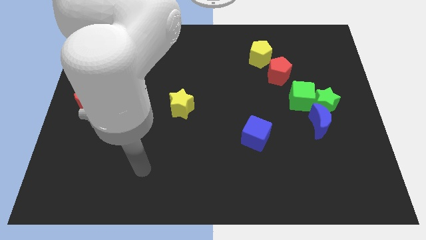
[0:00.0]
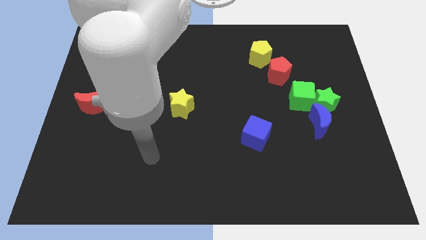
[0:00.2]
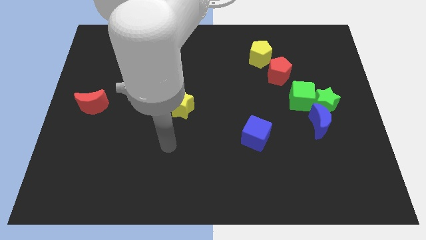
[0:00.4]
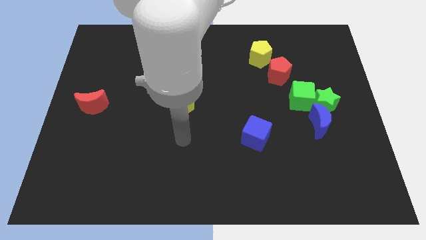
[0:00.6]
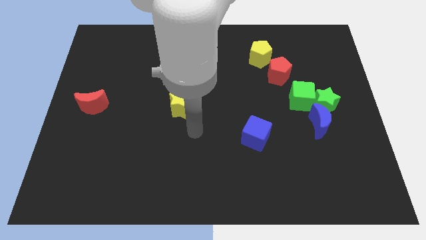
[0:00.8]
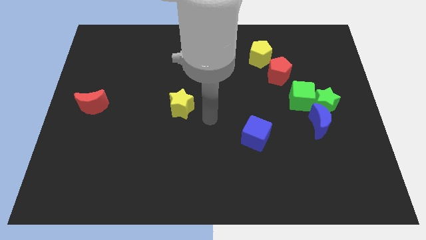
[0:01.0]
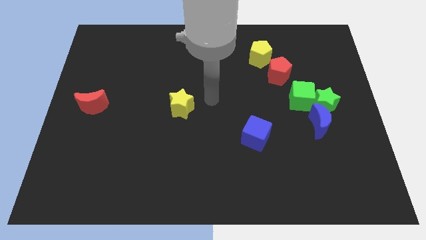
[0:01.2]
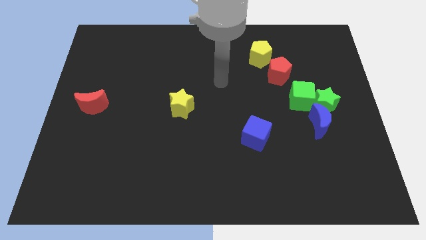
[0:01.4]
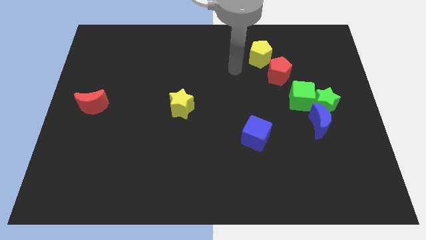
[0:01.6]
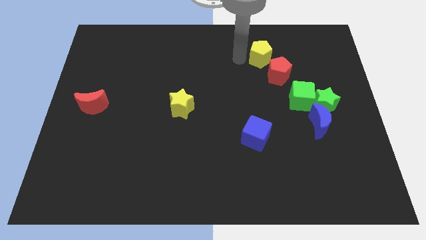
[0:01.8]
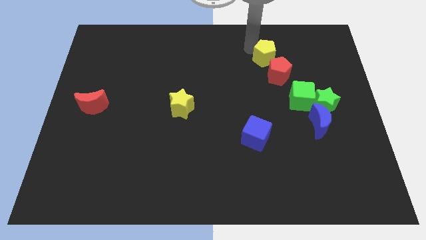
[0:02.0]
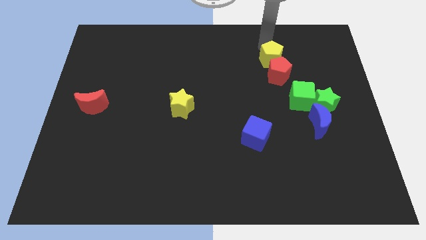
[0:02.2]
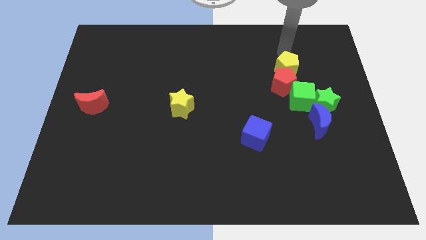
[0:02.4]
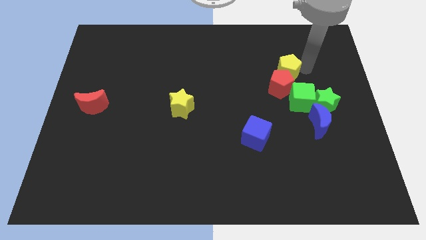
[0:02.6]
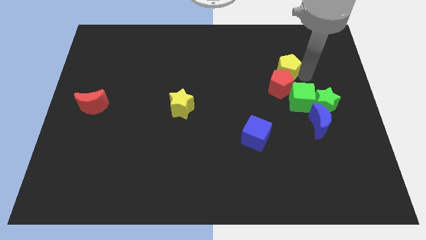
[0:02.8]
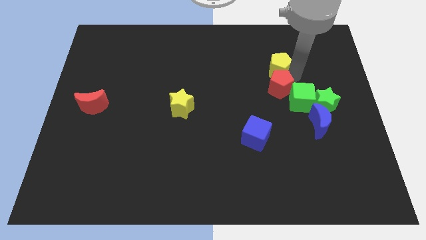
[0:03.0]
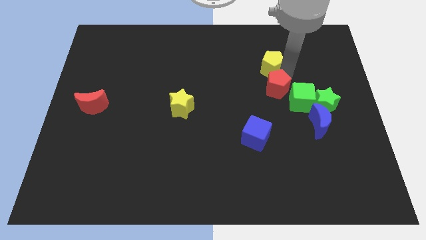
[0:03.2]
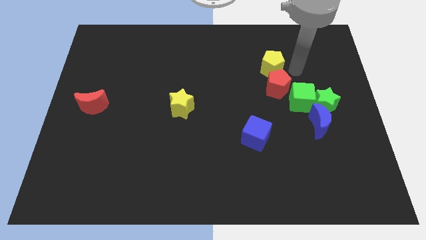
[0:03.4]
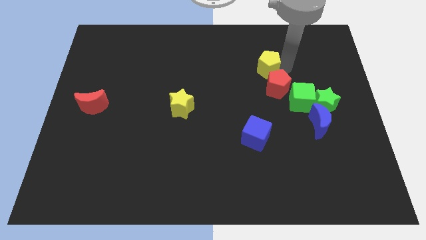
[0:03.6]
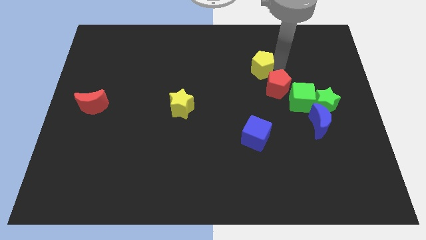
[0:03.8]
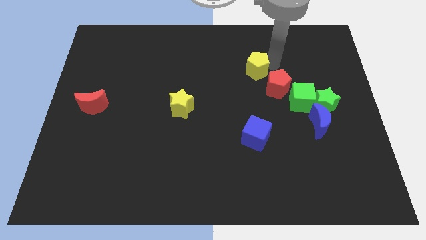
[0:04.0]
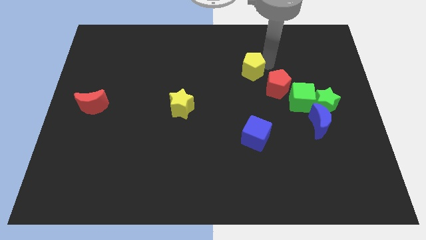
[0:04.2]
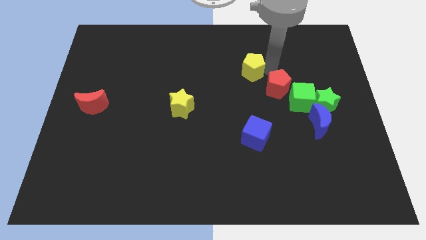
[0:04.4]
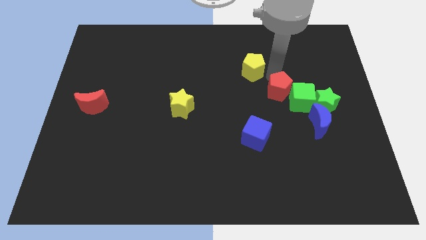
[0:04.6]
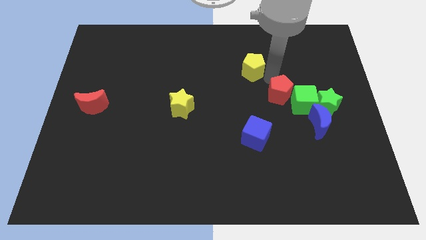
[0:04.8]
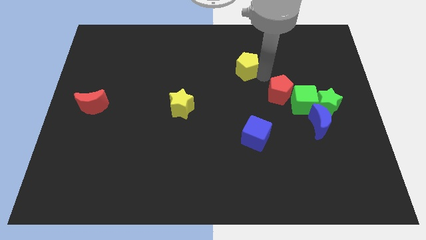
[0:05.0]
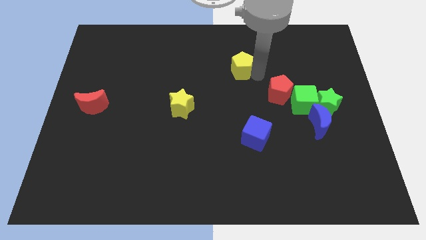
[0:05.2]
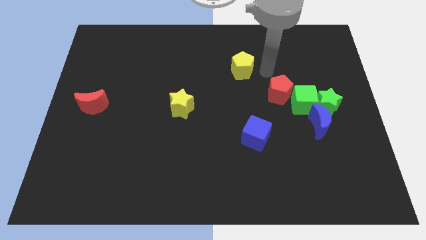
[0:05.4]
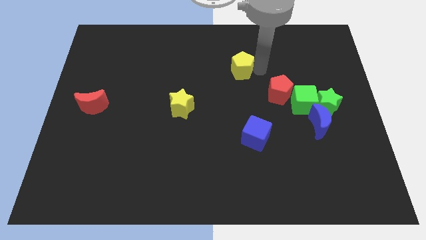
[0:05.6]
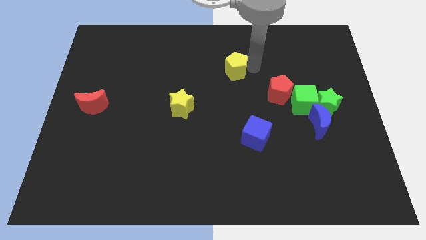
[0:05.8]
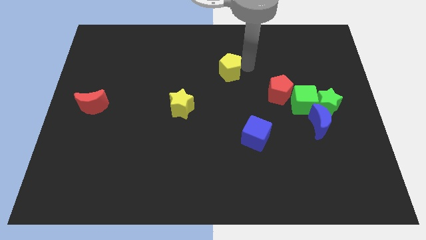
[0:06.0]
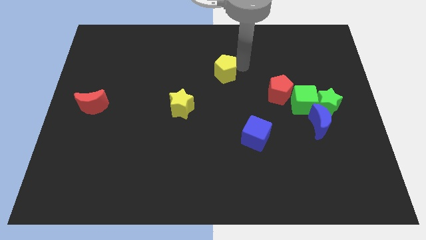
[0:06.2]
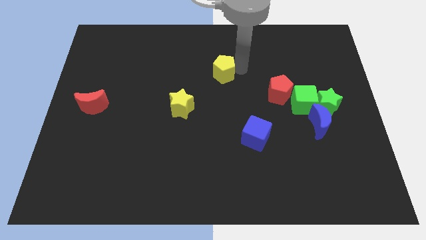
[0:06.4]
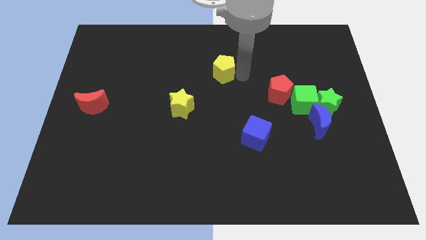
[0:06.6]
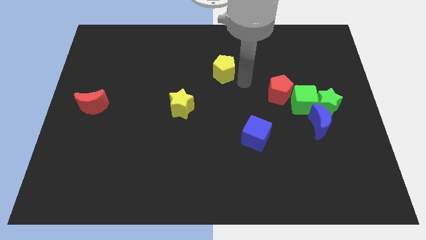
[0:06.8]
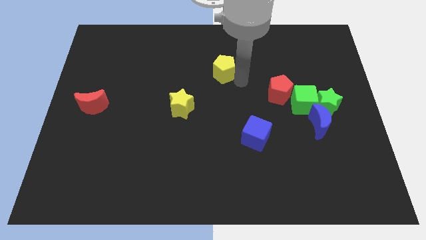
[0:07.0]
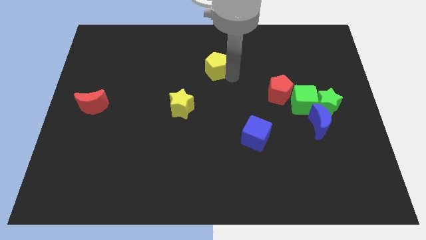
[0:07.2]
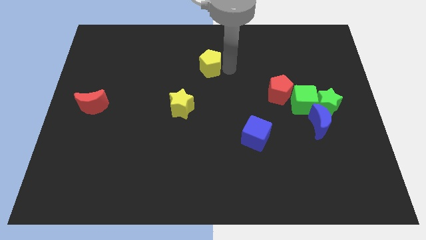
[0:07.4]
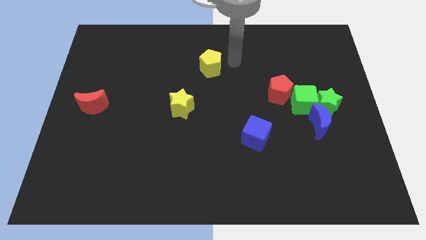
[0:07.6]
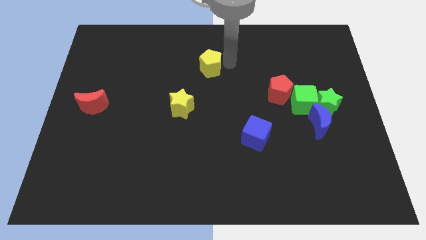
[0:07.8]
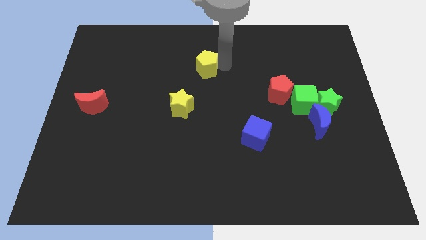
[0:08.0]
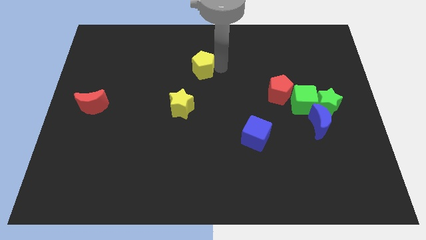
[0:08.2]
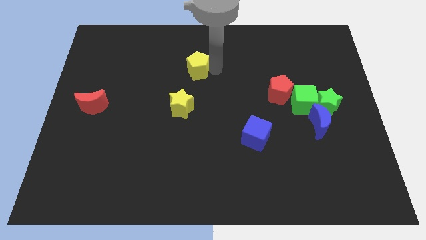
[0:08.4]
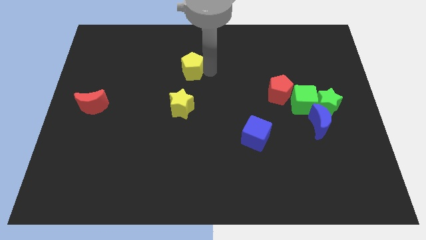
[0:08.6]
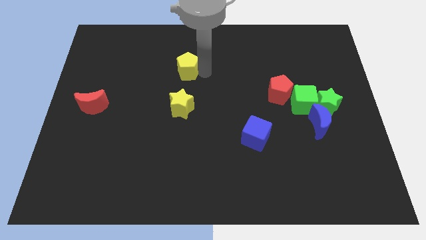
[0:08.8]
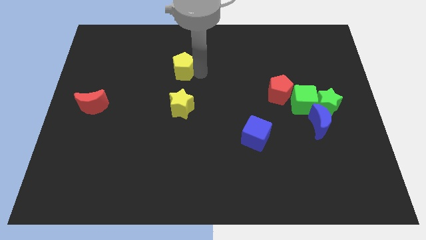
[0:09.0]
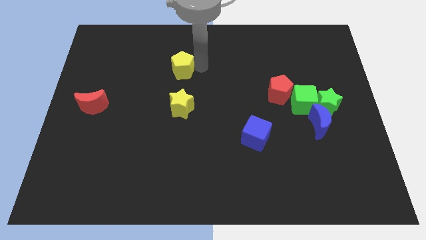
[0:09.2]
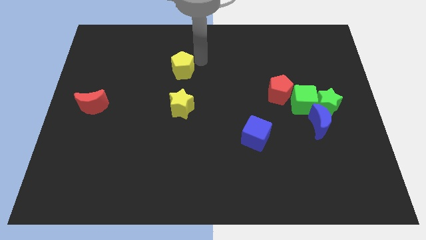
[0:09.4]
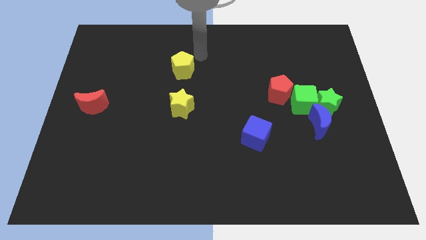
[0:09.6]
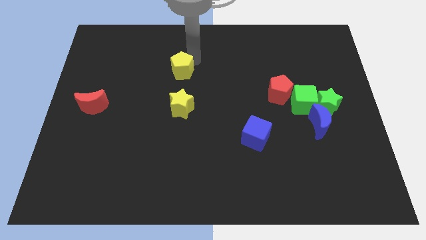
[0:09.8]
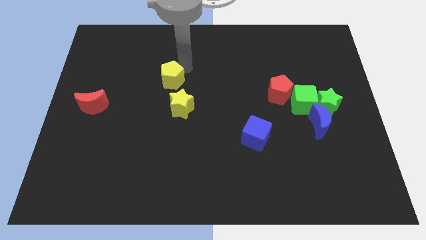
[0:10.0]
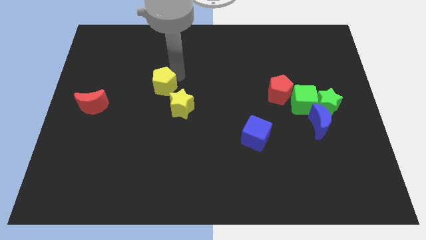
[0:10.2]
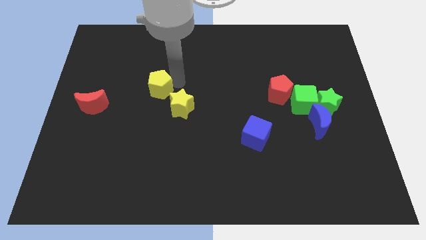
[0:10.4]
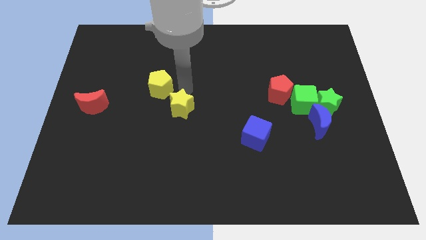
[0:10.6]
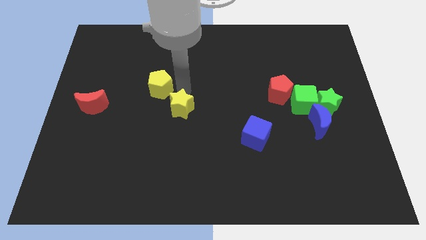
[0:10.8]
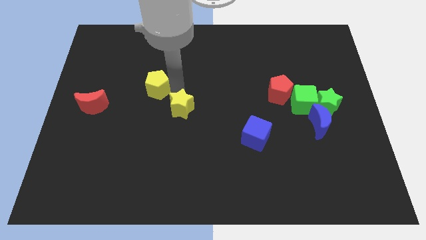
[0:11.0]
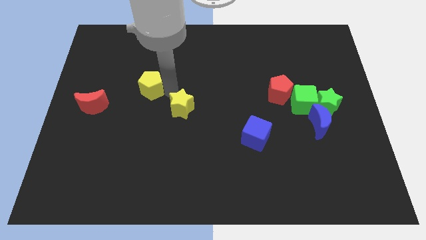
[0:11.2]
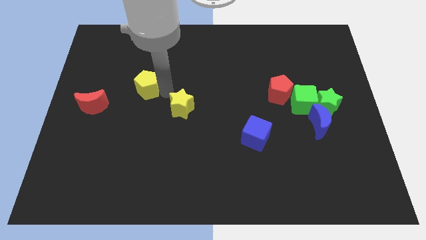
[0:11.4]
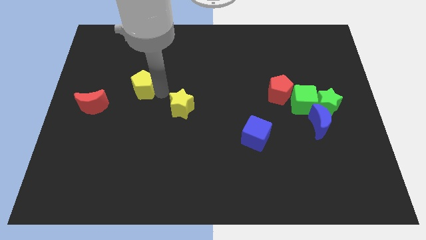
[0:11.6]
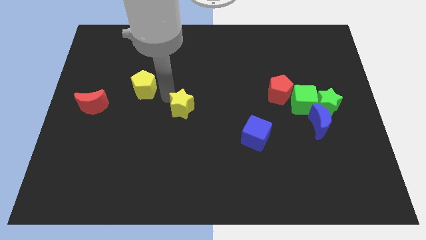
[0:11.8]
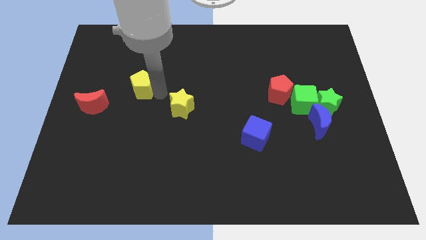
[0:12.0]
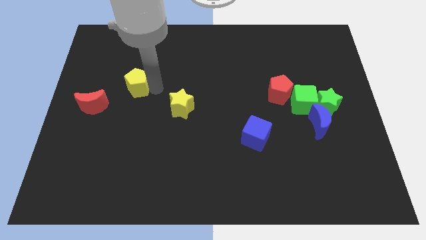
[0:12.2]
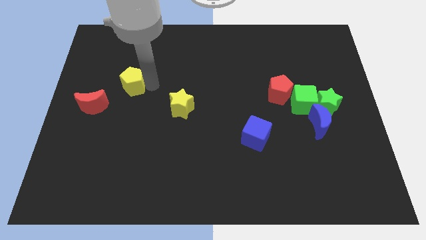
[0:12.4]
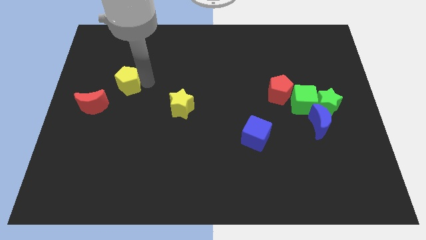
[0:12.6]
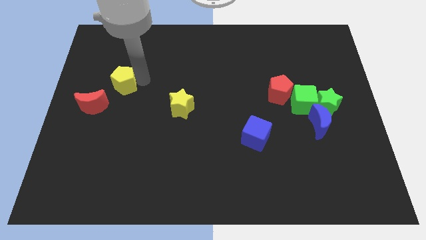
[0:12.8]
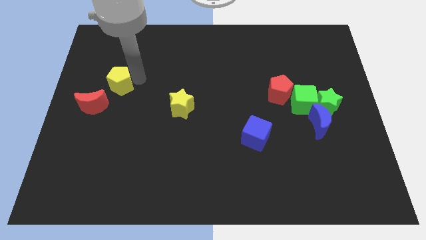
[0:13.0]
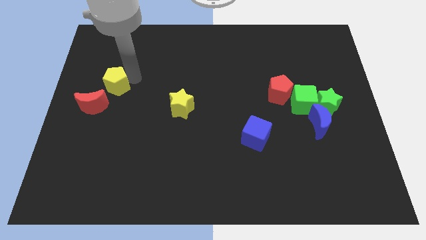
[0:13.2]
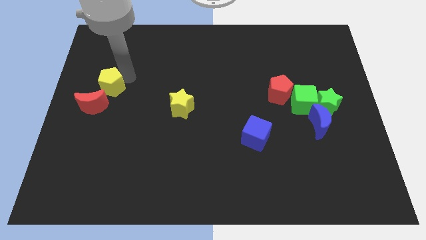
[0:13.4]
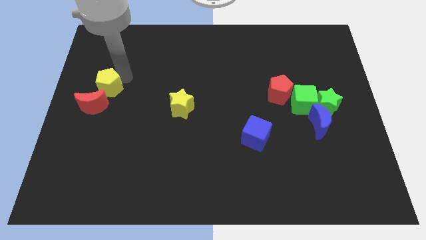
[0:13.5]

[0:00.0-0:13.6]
move the yellow pentagon to the center left
